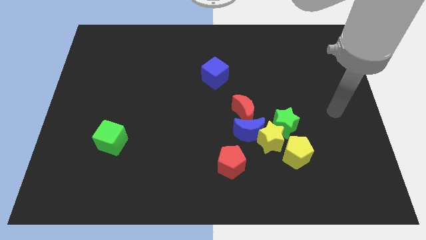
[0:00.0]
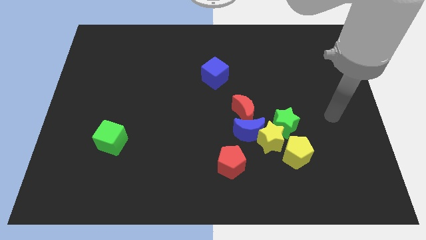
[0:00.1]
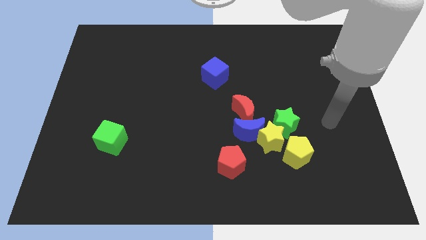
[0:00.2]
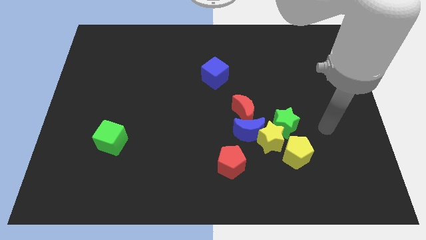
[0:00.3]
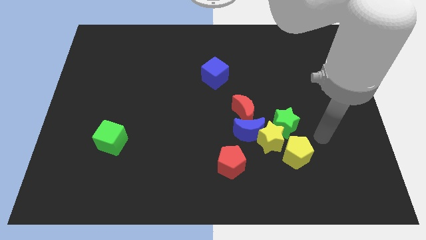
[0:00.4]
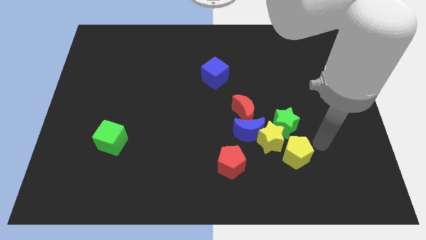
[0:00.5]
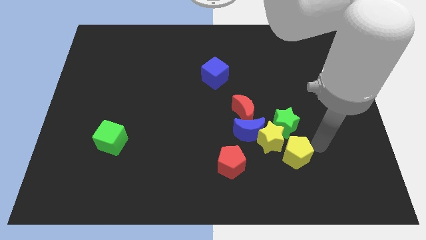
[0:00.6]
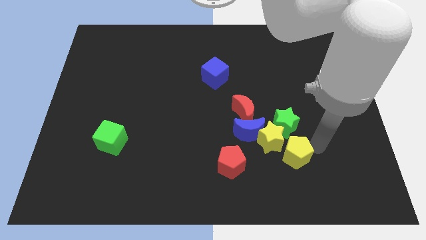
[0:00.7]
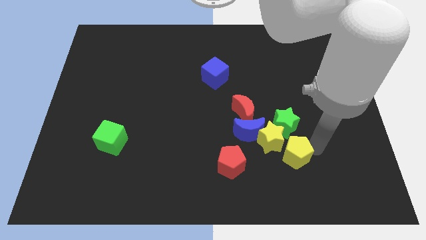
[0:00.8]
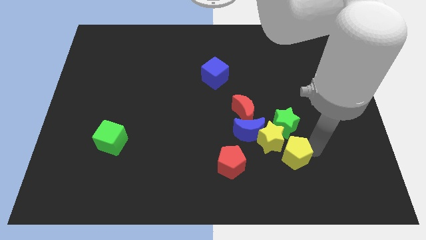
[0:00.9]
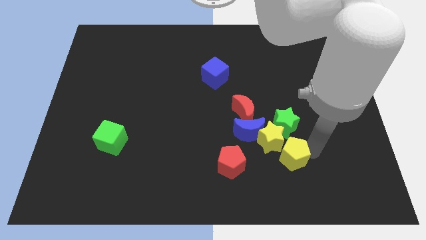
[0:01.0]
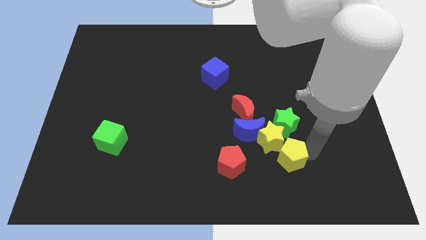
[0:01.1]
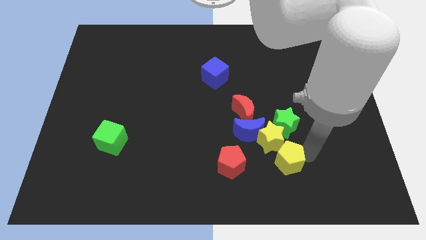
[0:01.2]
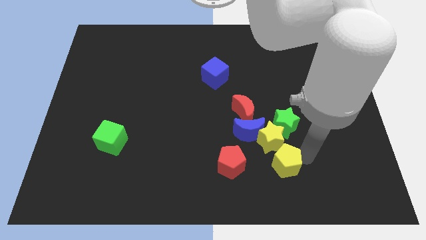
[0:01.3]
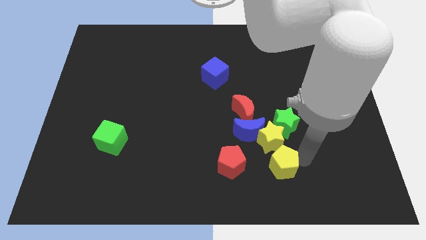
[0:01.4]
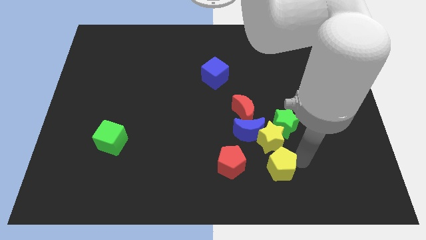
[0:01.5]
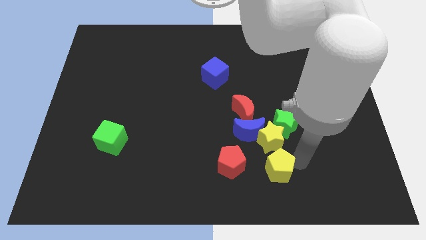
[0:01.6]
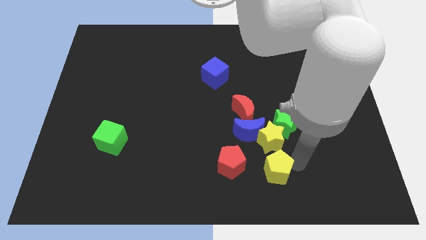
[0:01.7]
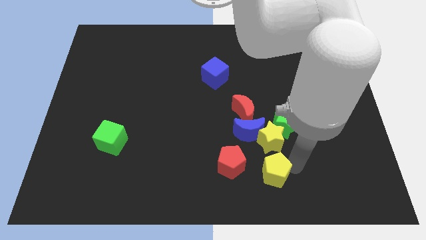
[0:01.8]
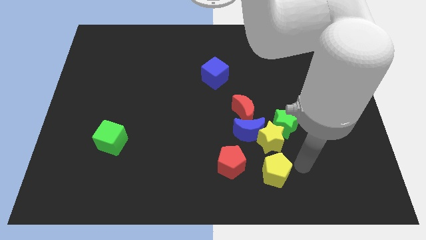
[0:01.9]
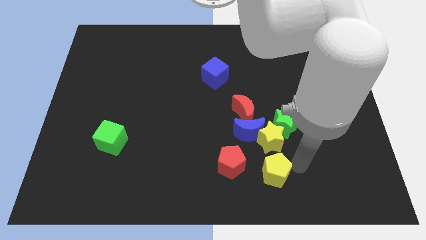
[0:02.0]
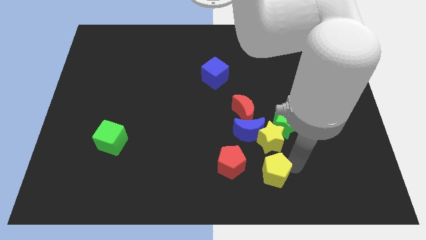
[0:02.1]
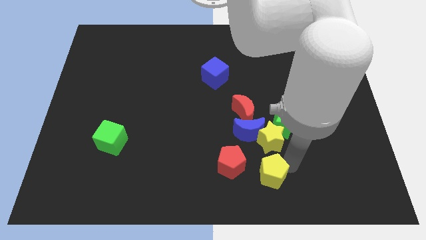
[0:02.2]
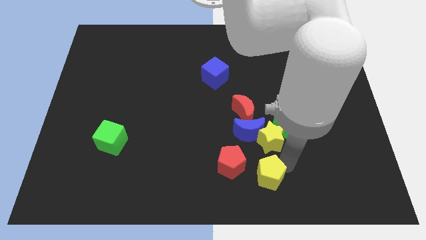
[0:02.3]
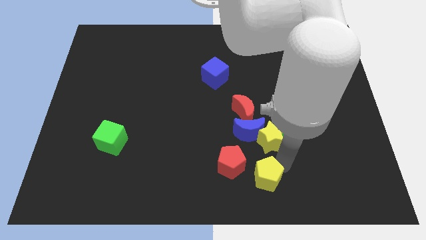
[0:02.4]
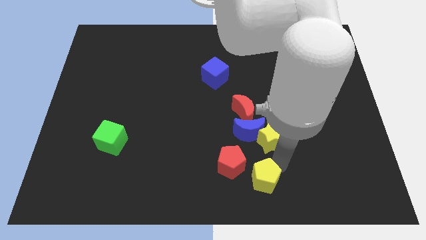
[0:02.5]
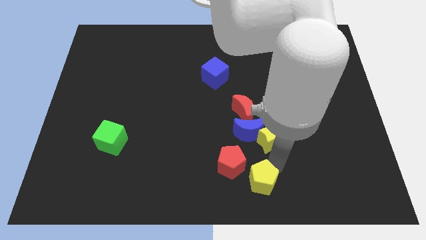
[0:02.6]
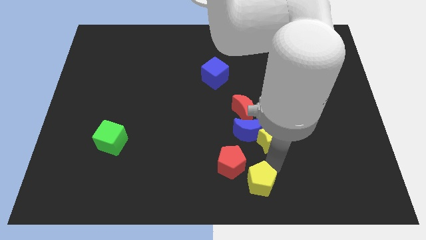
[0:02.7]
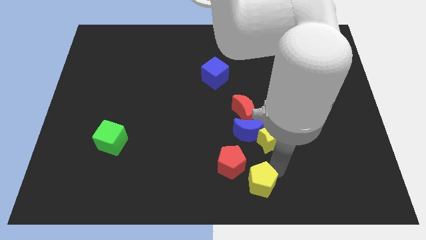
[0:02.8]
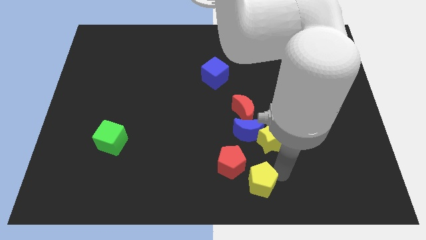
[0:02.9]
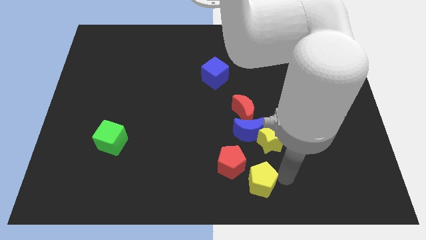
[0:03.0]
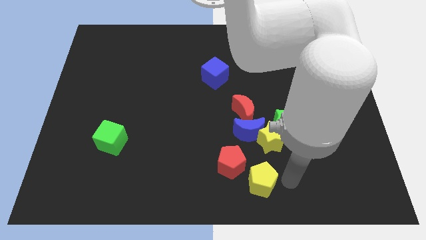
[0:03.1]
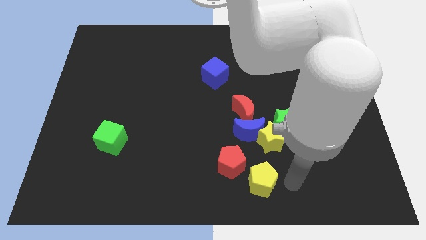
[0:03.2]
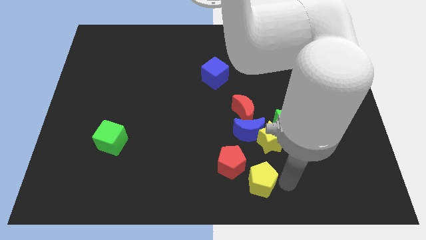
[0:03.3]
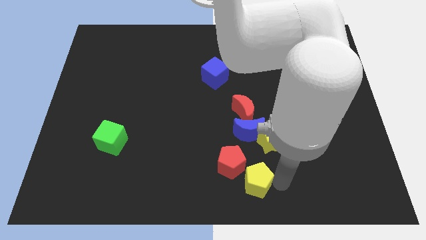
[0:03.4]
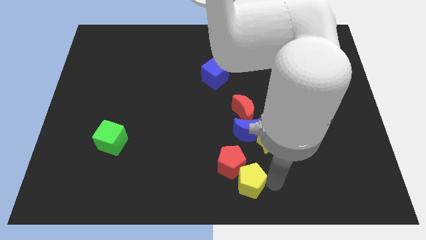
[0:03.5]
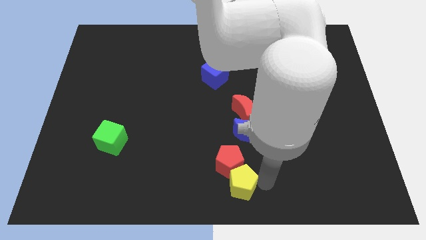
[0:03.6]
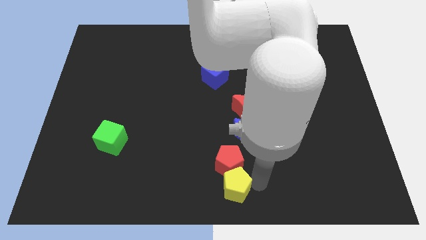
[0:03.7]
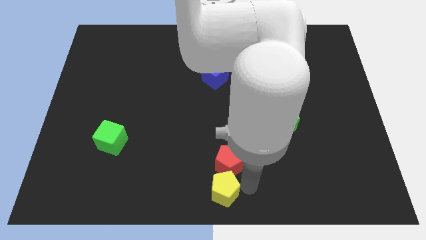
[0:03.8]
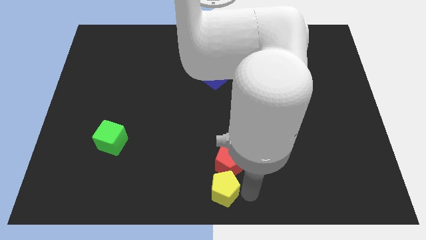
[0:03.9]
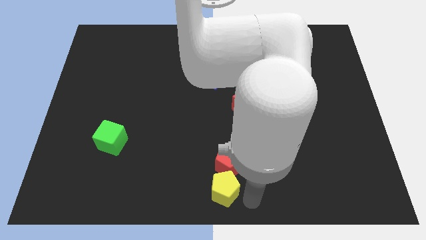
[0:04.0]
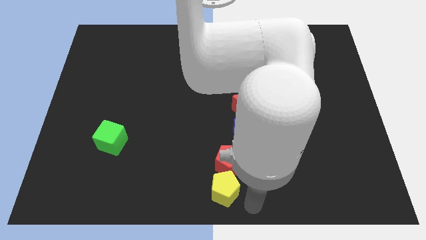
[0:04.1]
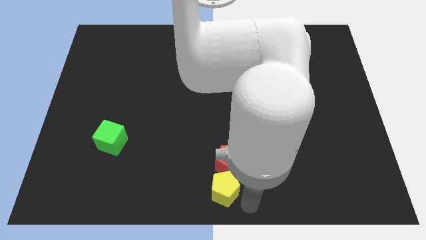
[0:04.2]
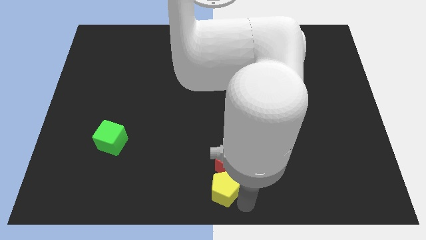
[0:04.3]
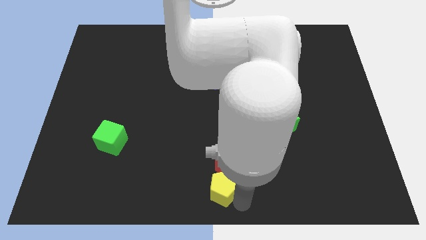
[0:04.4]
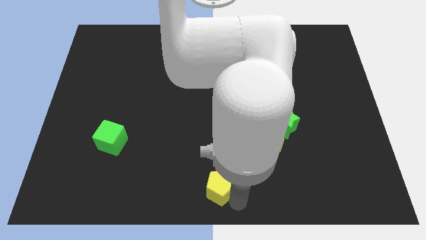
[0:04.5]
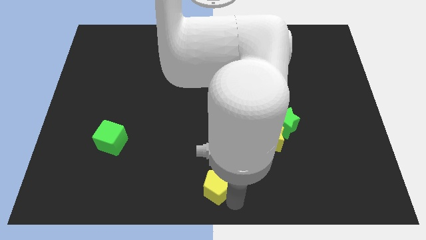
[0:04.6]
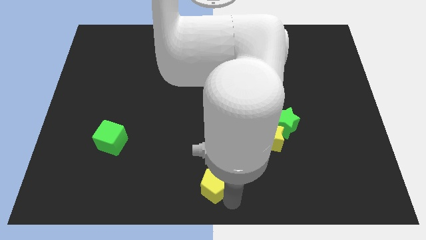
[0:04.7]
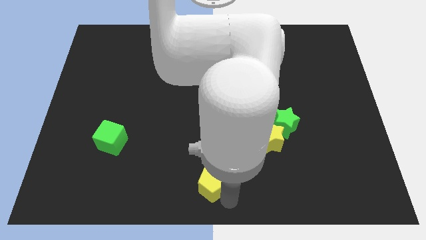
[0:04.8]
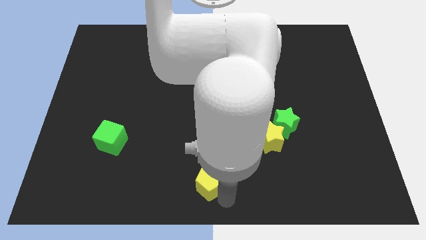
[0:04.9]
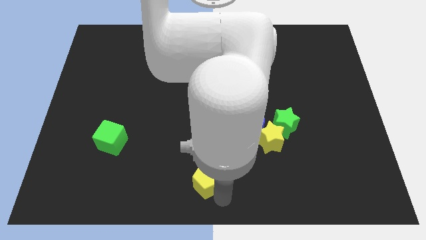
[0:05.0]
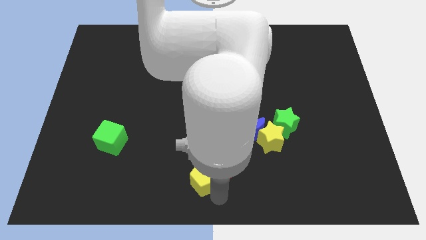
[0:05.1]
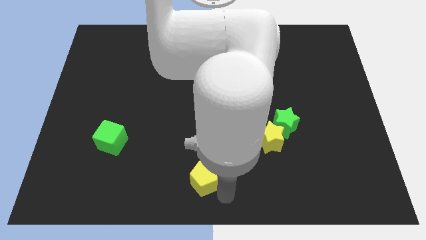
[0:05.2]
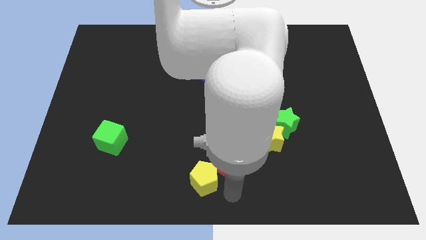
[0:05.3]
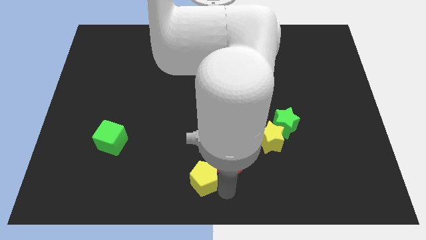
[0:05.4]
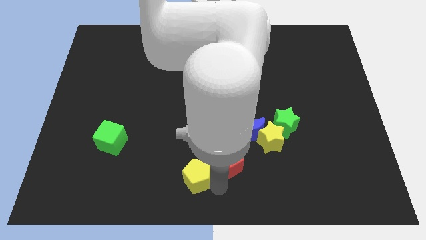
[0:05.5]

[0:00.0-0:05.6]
slide the yellow pentagon left

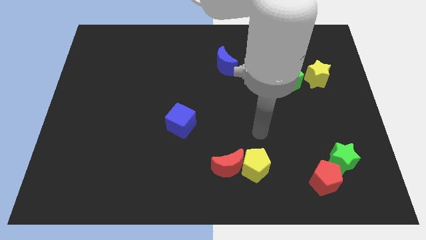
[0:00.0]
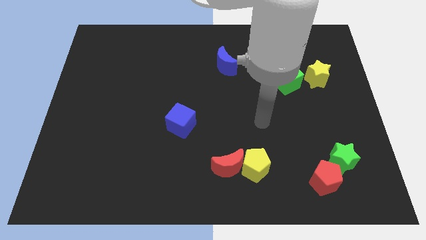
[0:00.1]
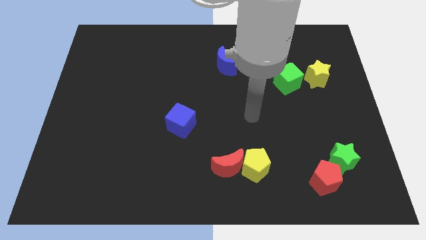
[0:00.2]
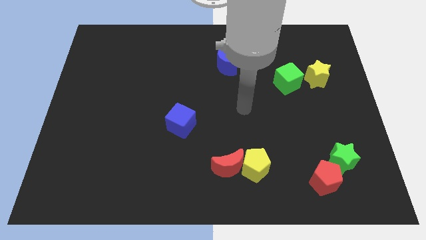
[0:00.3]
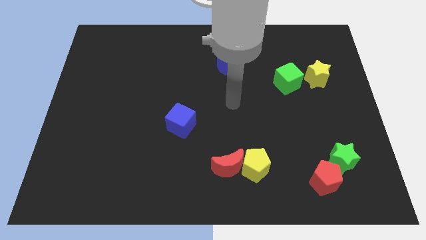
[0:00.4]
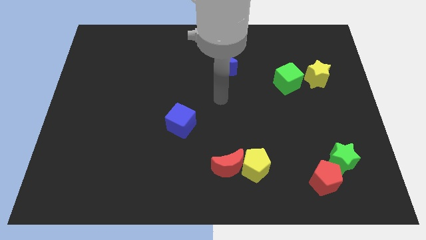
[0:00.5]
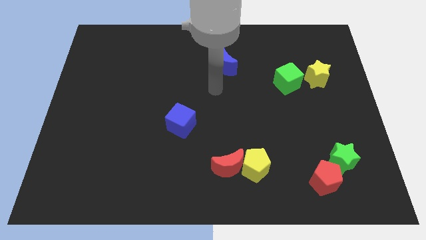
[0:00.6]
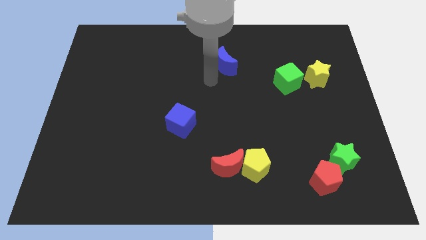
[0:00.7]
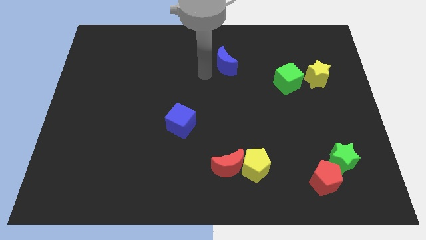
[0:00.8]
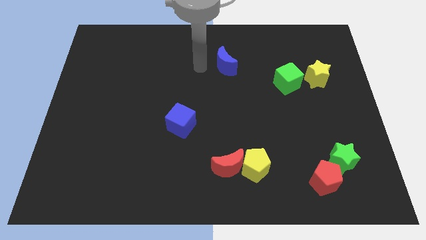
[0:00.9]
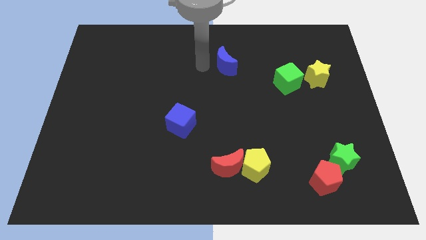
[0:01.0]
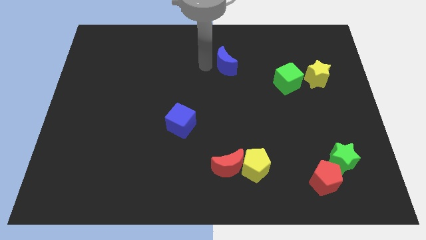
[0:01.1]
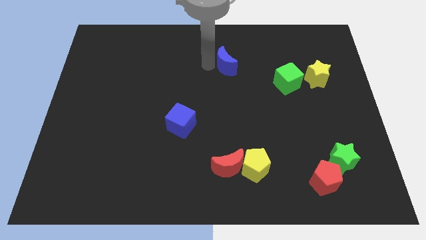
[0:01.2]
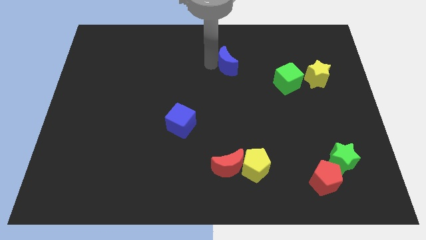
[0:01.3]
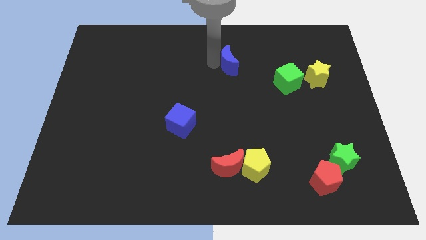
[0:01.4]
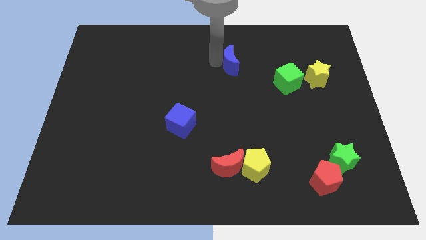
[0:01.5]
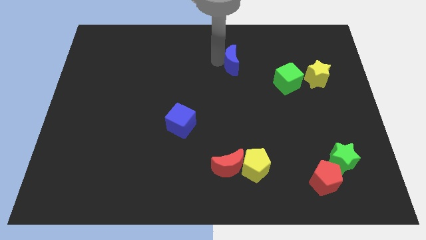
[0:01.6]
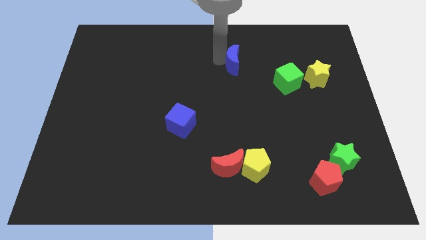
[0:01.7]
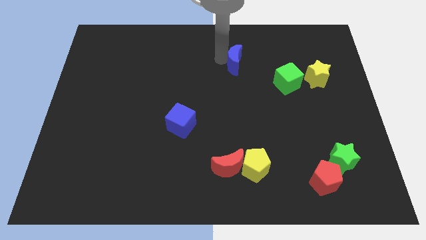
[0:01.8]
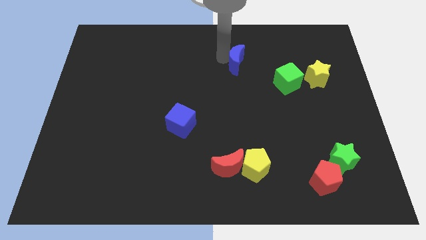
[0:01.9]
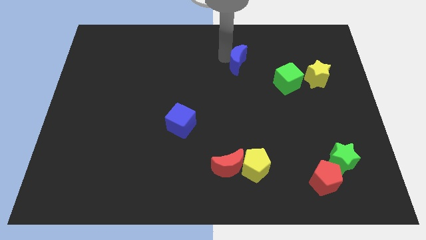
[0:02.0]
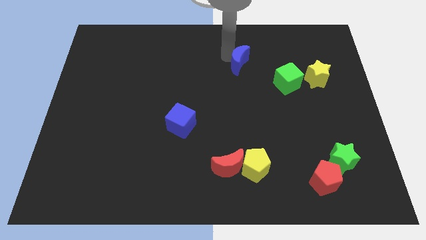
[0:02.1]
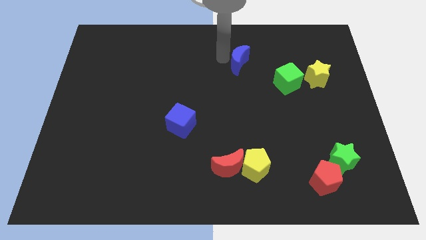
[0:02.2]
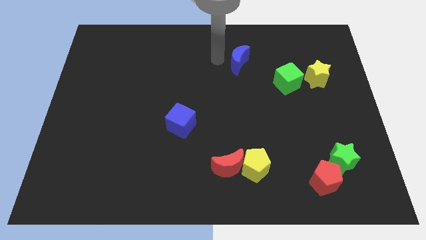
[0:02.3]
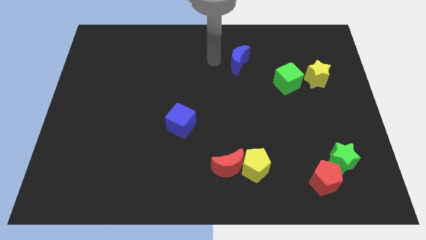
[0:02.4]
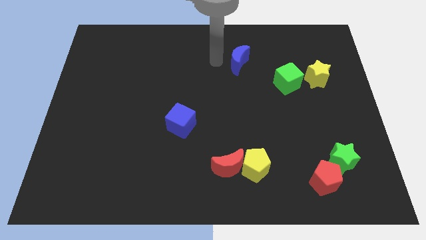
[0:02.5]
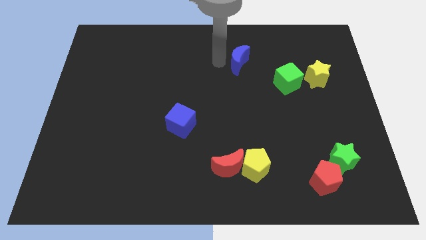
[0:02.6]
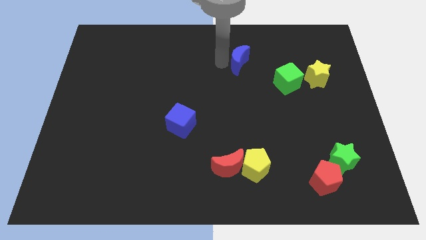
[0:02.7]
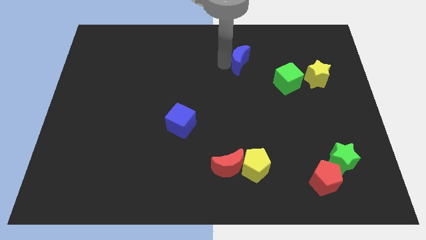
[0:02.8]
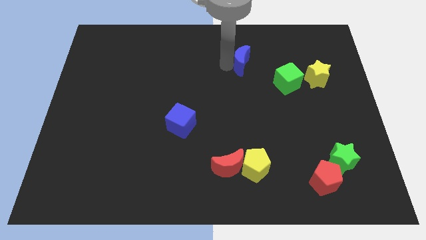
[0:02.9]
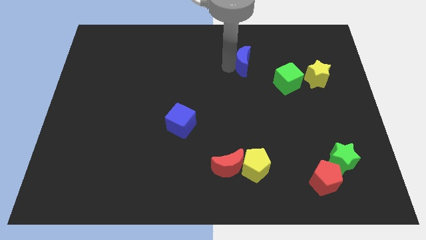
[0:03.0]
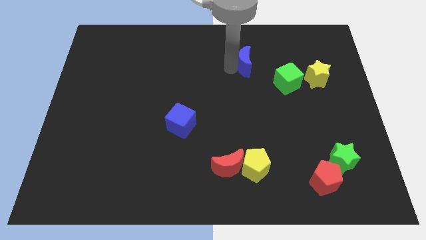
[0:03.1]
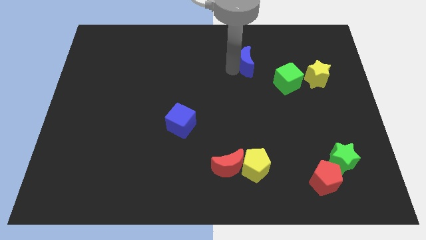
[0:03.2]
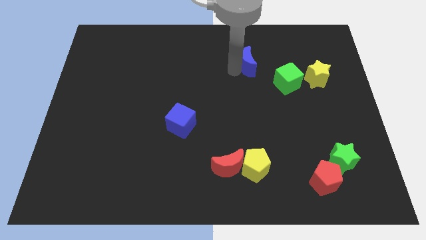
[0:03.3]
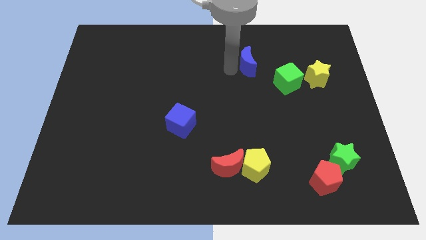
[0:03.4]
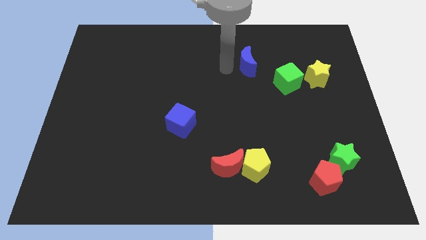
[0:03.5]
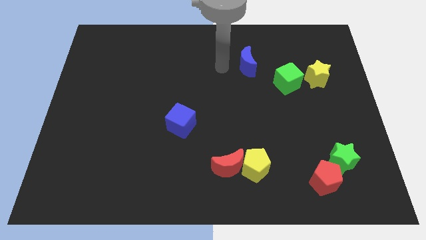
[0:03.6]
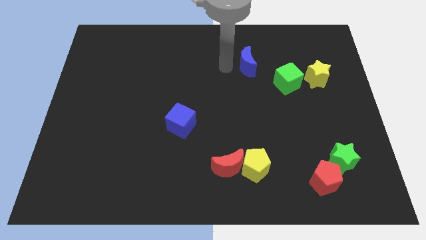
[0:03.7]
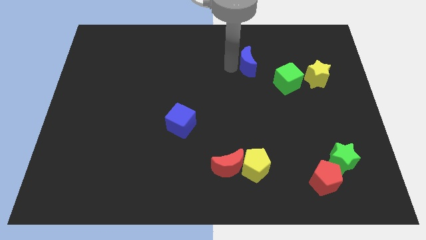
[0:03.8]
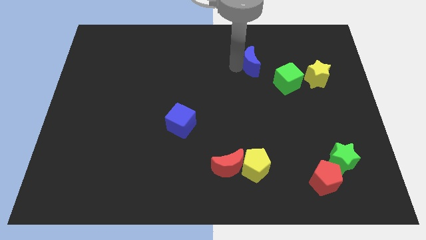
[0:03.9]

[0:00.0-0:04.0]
slightly move the blue moon to the right
